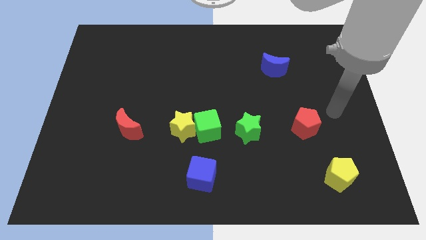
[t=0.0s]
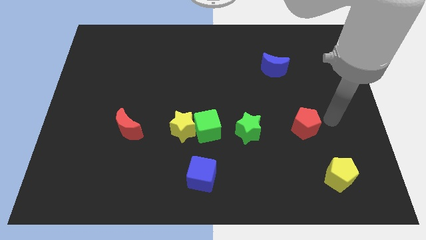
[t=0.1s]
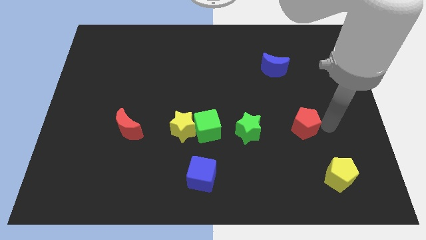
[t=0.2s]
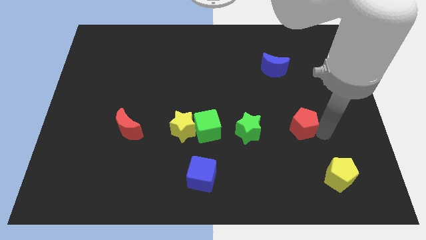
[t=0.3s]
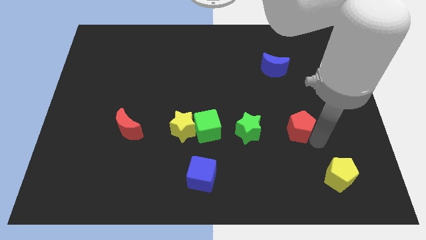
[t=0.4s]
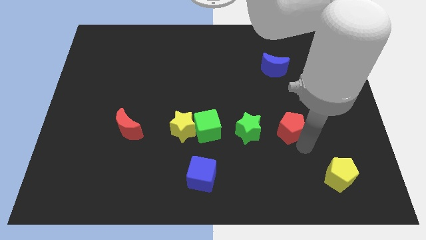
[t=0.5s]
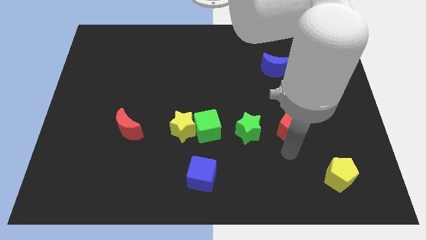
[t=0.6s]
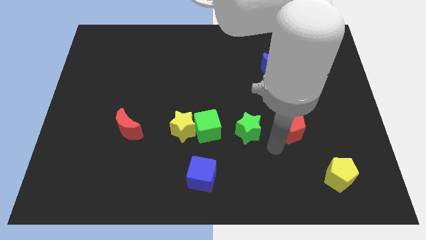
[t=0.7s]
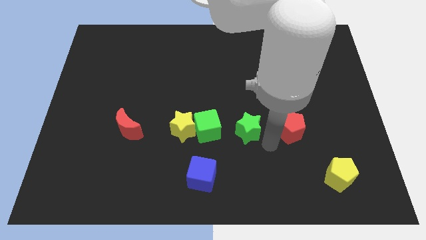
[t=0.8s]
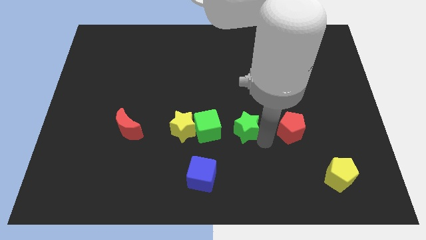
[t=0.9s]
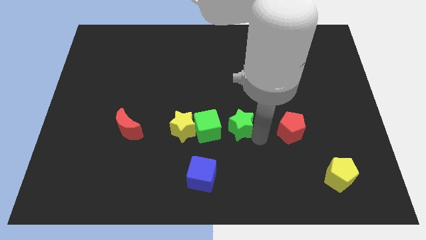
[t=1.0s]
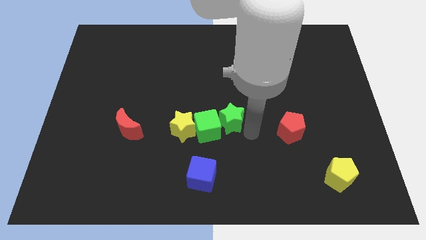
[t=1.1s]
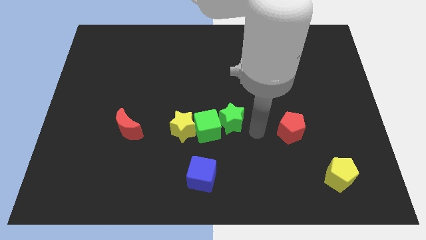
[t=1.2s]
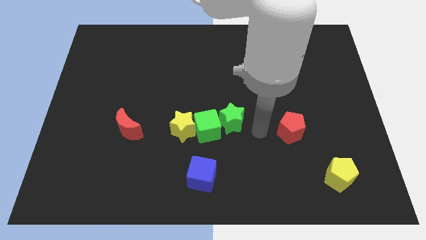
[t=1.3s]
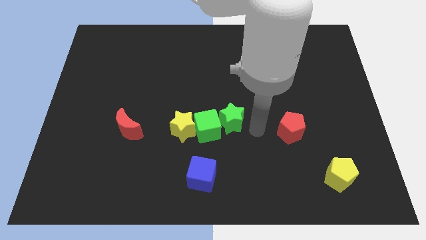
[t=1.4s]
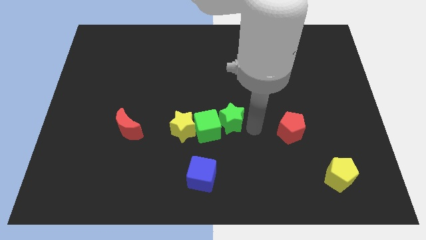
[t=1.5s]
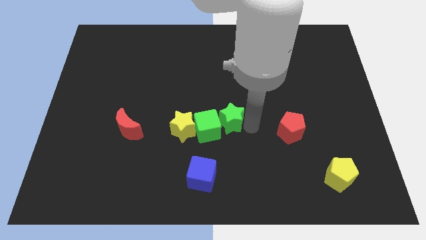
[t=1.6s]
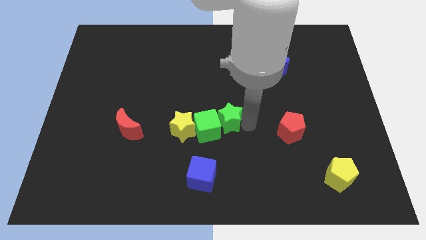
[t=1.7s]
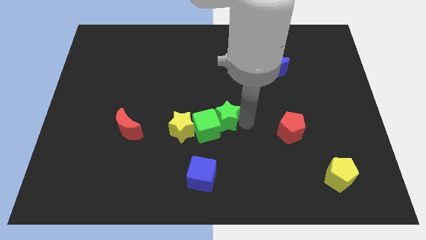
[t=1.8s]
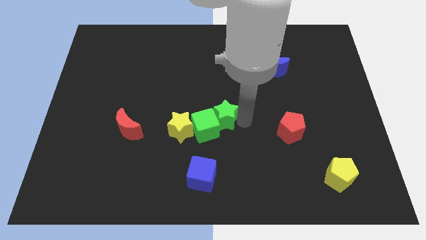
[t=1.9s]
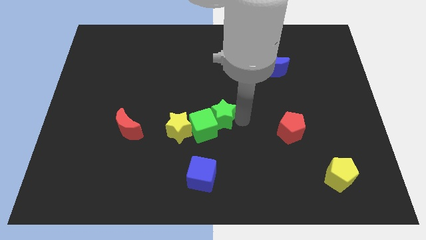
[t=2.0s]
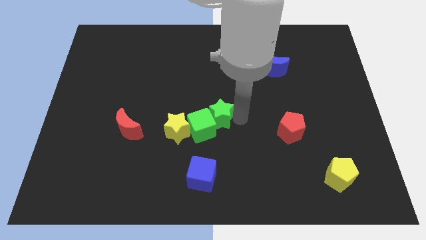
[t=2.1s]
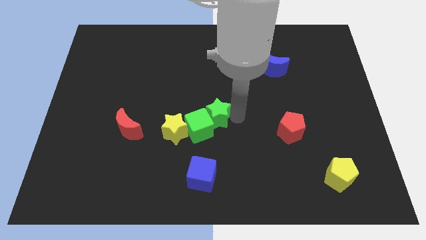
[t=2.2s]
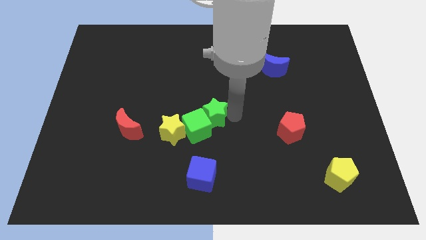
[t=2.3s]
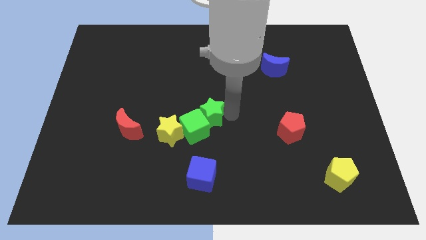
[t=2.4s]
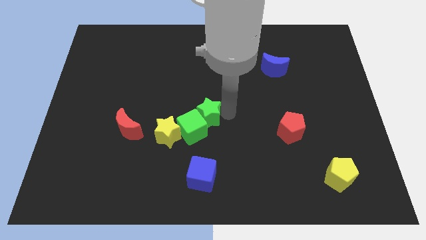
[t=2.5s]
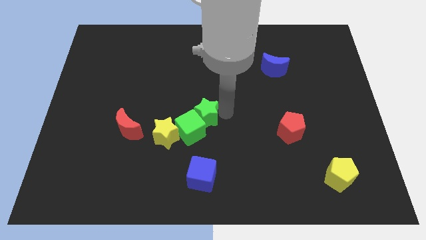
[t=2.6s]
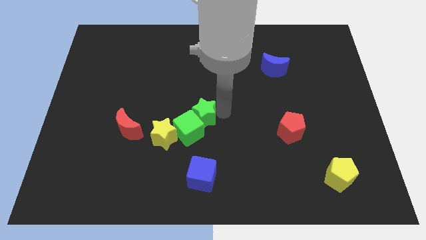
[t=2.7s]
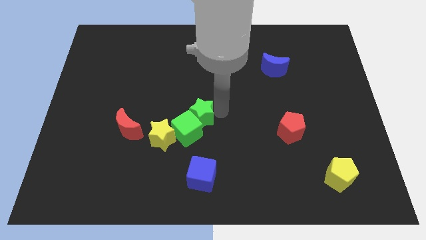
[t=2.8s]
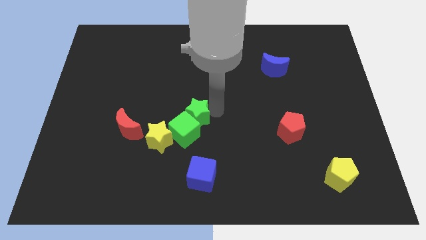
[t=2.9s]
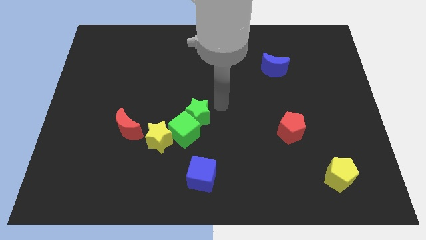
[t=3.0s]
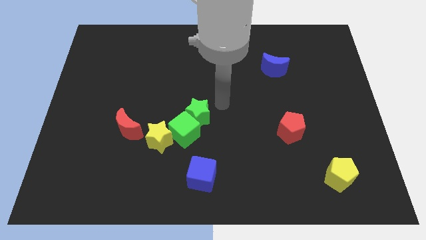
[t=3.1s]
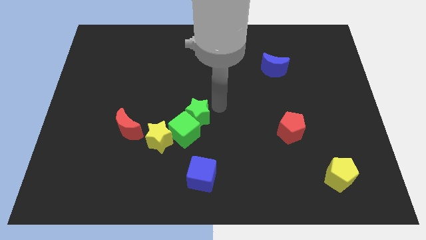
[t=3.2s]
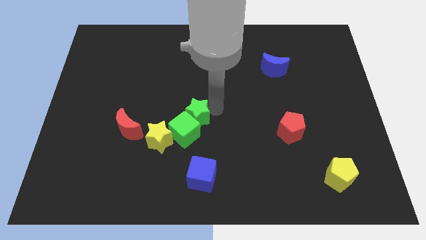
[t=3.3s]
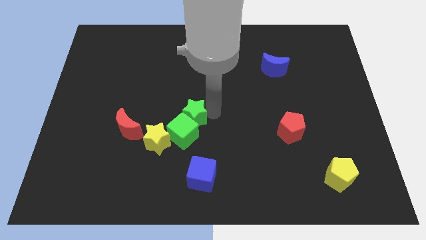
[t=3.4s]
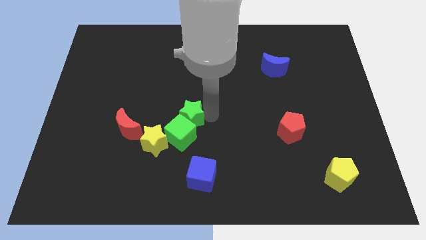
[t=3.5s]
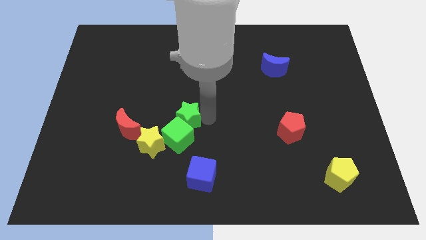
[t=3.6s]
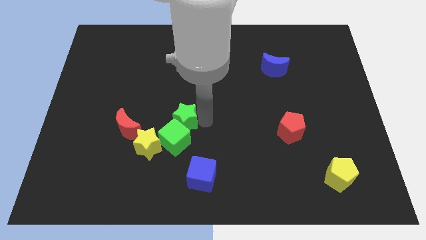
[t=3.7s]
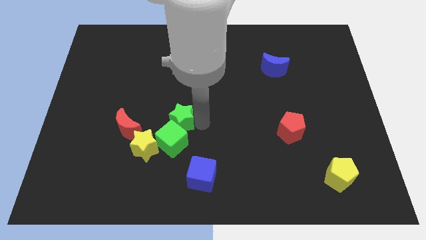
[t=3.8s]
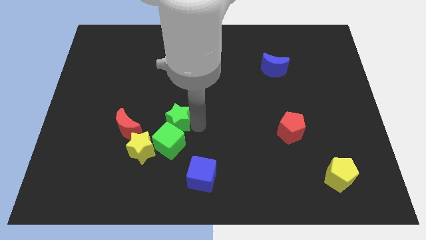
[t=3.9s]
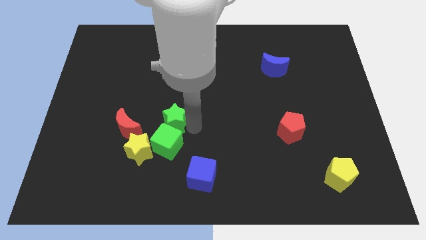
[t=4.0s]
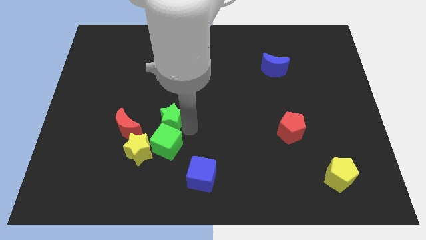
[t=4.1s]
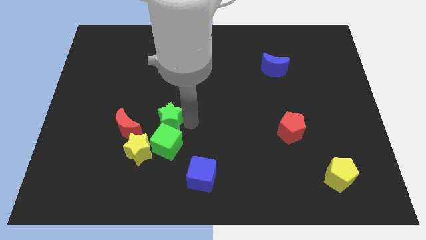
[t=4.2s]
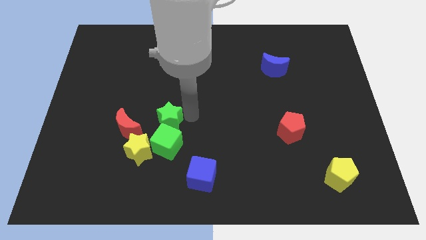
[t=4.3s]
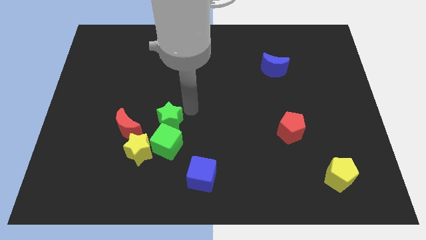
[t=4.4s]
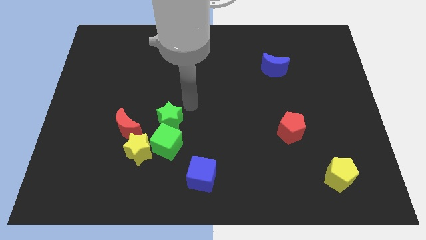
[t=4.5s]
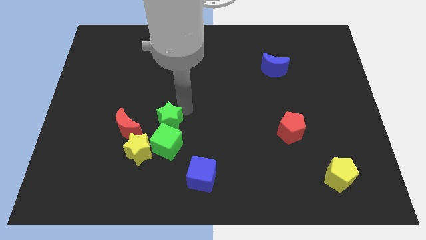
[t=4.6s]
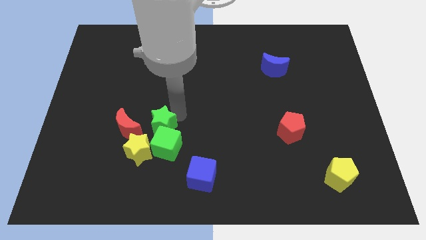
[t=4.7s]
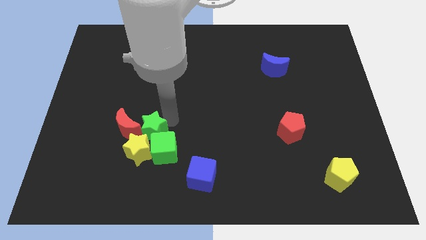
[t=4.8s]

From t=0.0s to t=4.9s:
slide the green star close to the yellow star

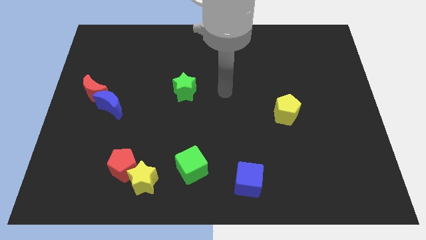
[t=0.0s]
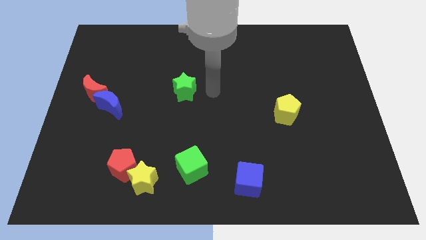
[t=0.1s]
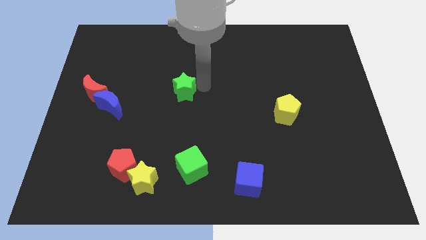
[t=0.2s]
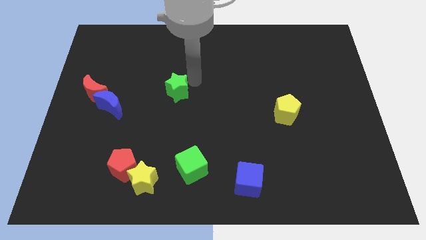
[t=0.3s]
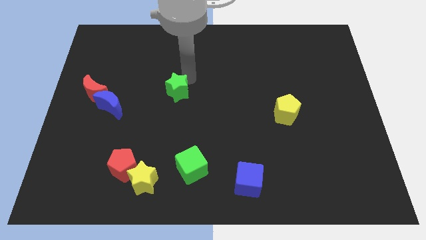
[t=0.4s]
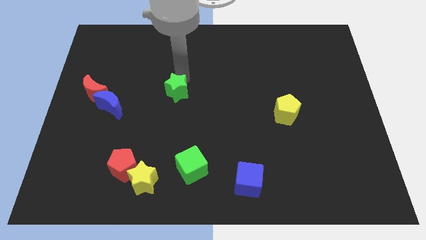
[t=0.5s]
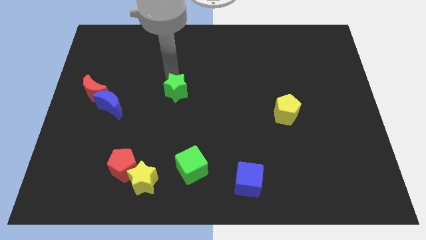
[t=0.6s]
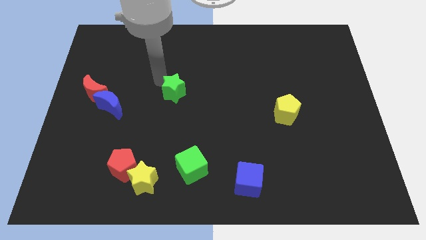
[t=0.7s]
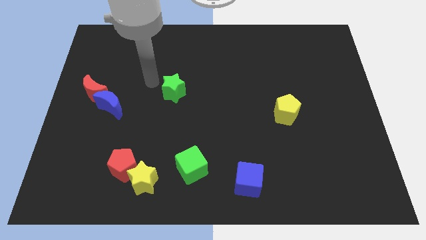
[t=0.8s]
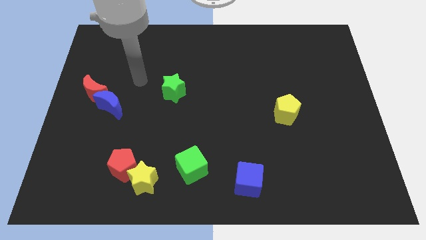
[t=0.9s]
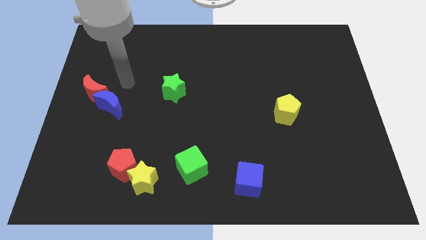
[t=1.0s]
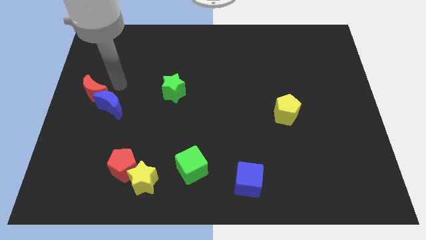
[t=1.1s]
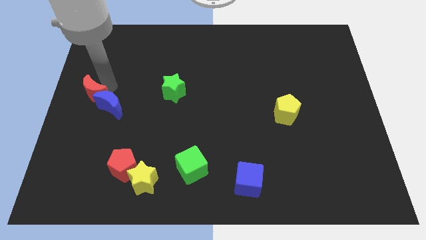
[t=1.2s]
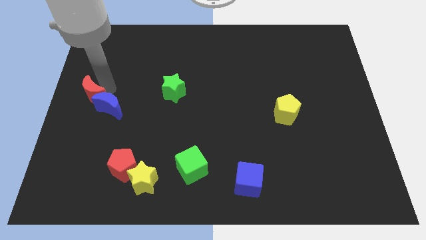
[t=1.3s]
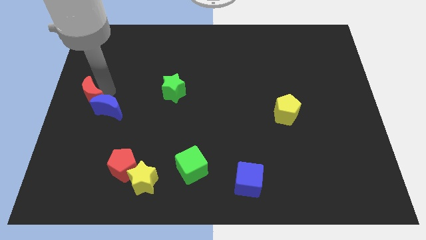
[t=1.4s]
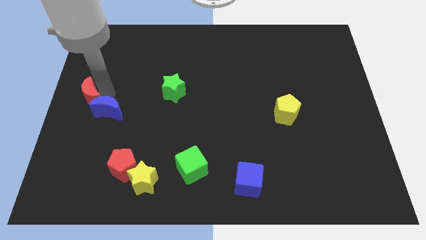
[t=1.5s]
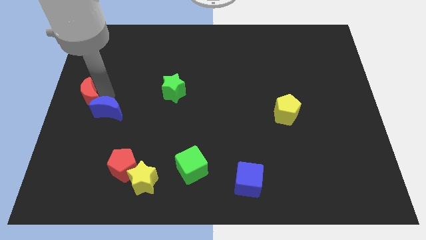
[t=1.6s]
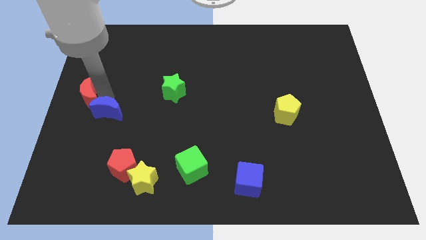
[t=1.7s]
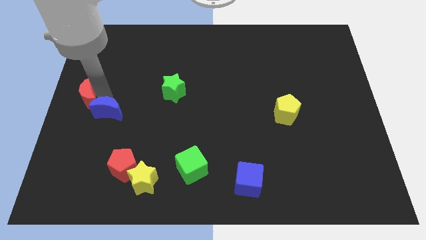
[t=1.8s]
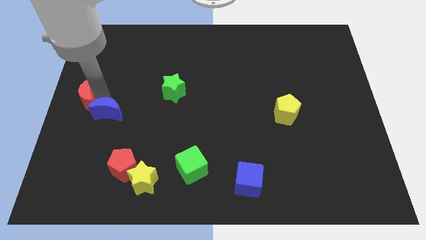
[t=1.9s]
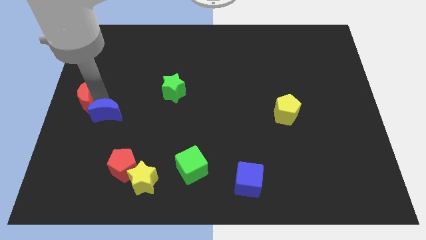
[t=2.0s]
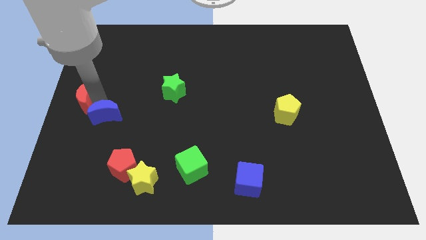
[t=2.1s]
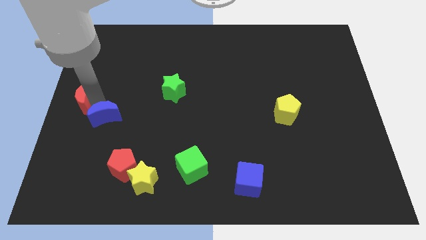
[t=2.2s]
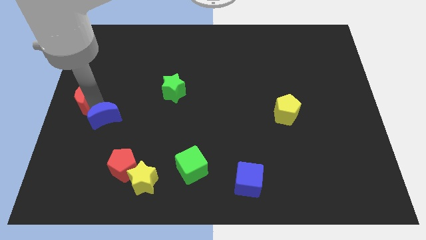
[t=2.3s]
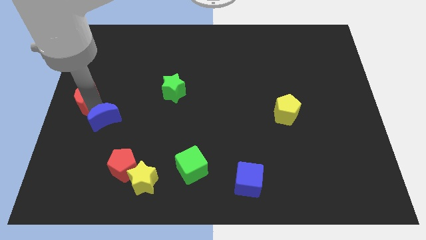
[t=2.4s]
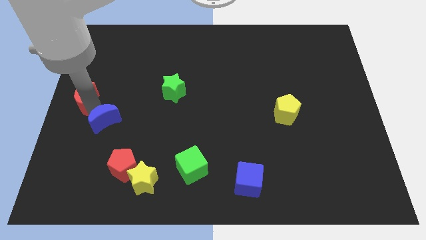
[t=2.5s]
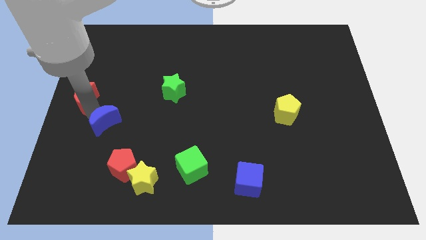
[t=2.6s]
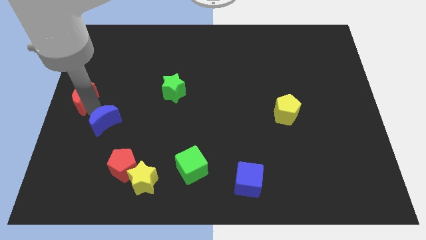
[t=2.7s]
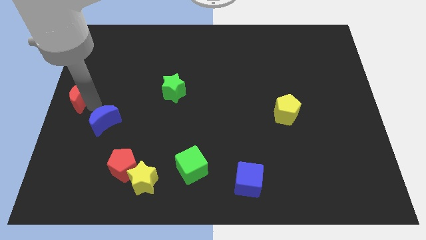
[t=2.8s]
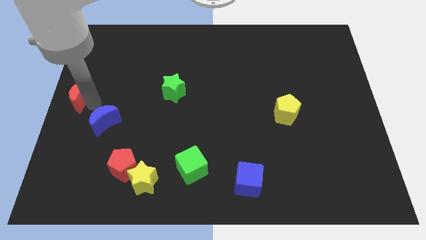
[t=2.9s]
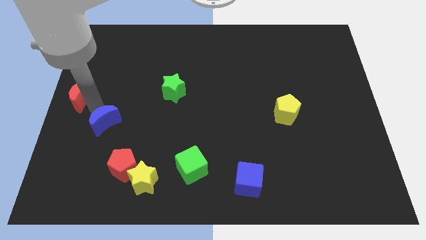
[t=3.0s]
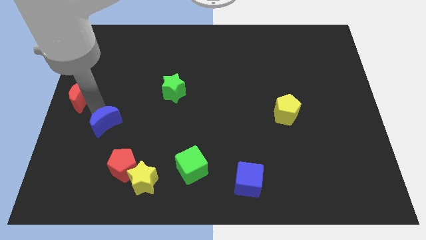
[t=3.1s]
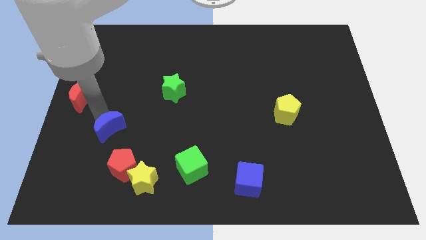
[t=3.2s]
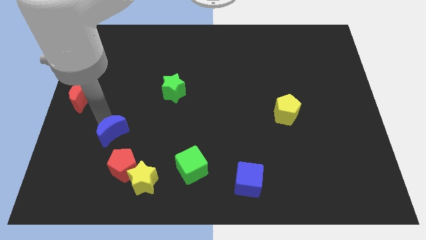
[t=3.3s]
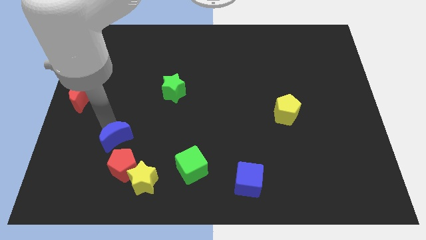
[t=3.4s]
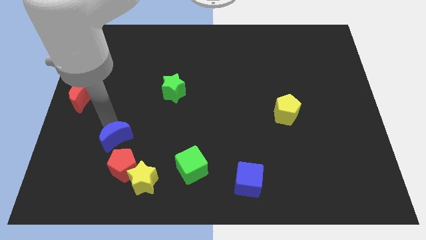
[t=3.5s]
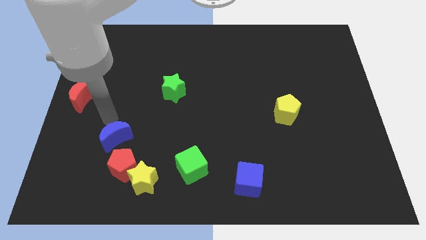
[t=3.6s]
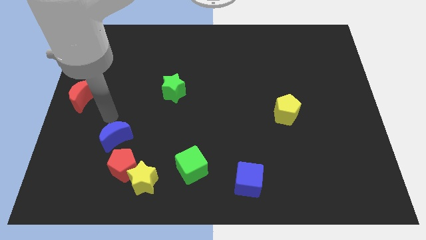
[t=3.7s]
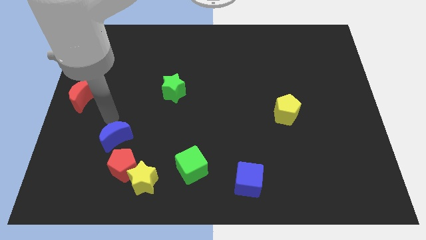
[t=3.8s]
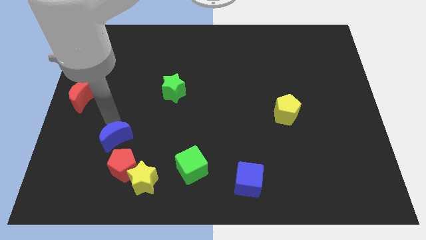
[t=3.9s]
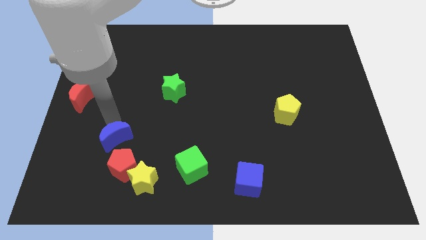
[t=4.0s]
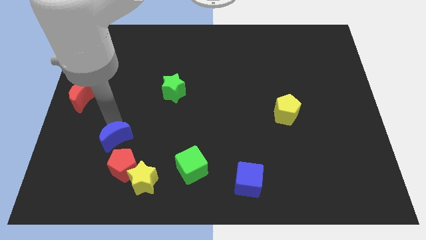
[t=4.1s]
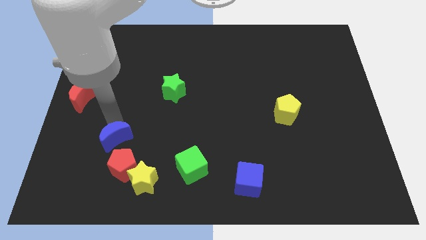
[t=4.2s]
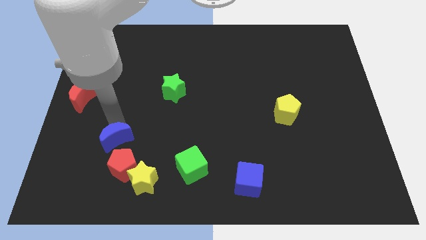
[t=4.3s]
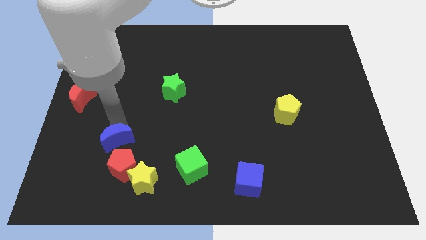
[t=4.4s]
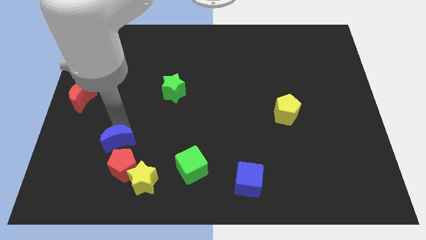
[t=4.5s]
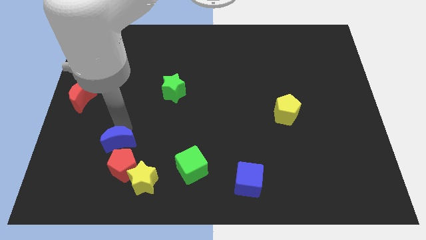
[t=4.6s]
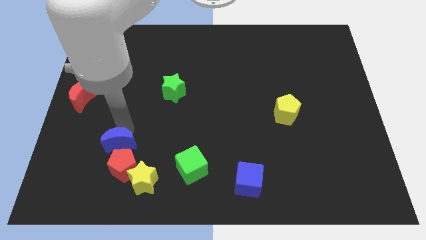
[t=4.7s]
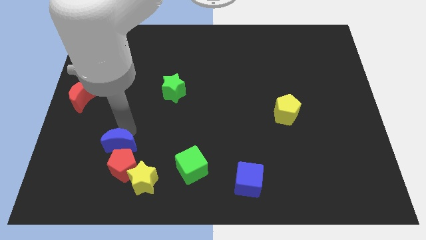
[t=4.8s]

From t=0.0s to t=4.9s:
push the blue moon towards the red pentagon
